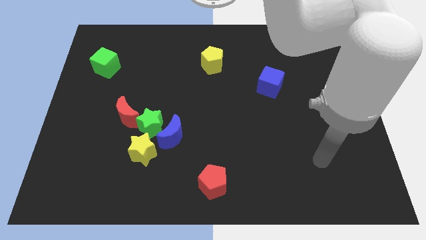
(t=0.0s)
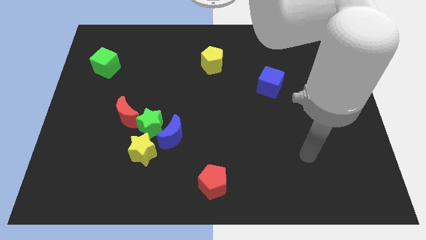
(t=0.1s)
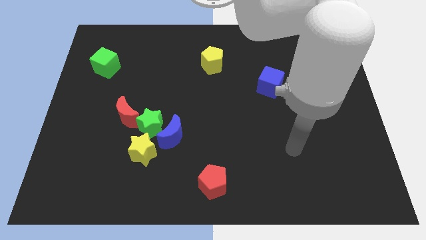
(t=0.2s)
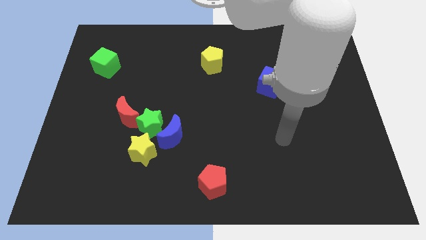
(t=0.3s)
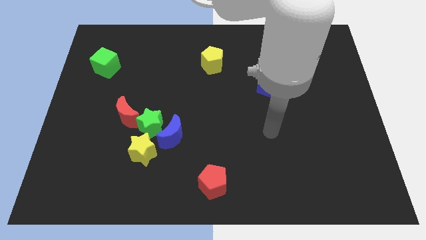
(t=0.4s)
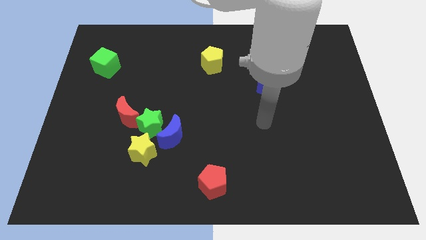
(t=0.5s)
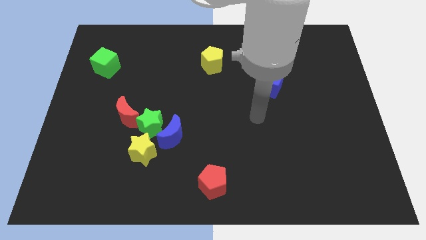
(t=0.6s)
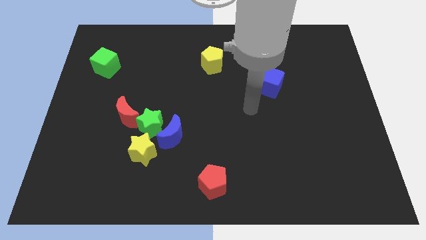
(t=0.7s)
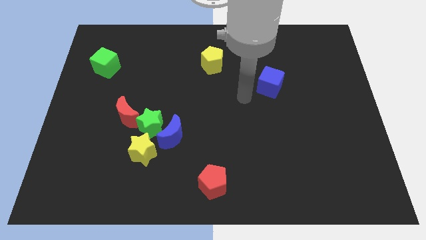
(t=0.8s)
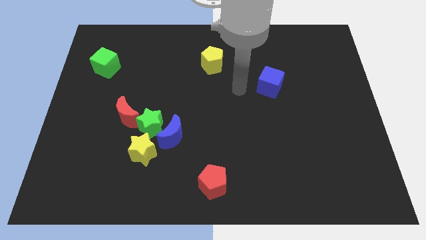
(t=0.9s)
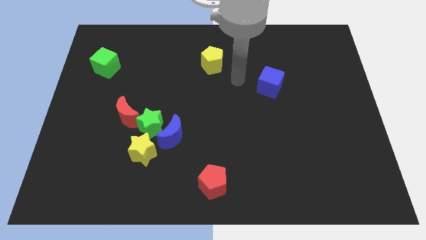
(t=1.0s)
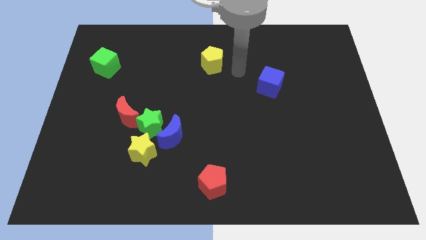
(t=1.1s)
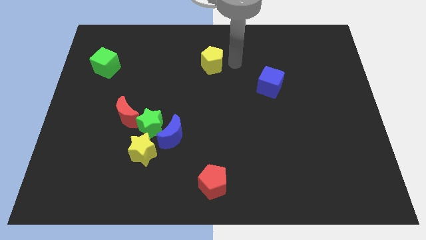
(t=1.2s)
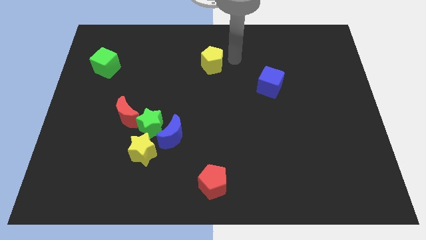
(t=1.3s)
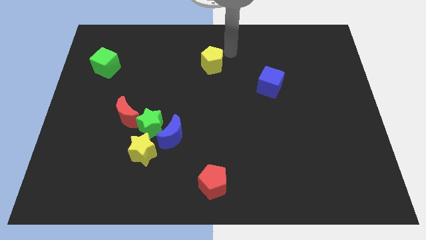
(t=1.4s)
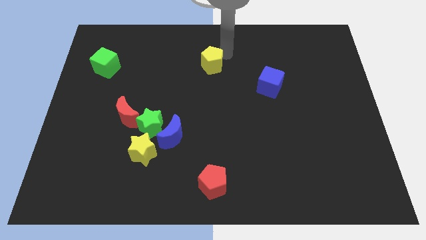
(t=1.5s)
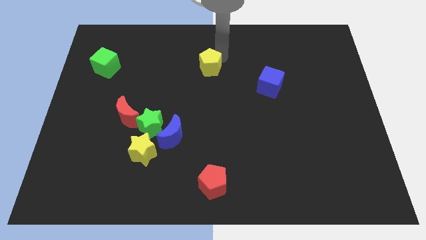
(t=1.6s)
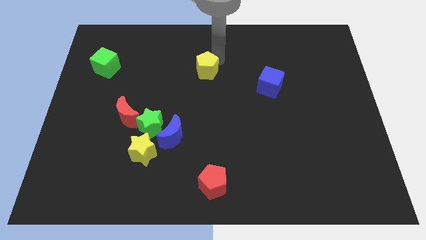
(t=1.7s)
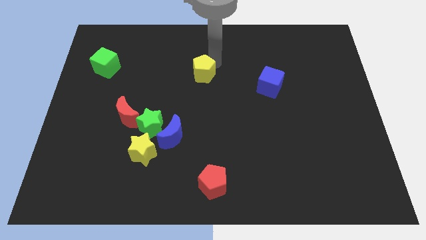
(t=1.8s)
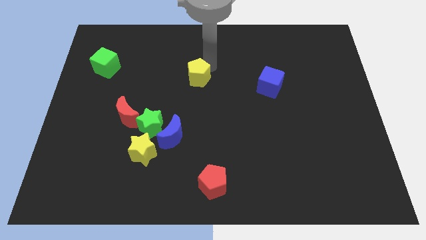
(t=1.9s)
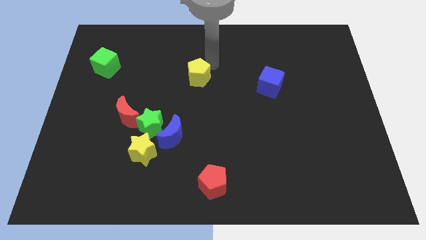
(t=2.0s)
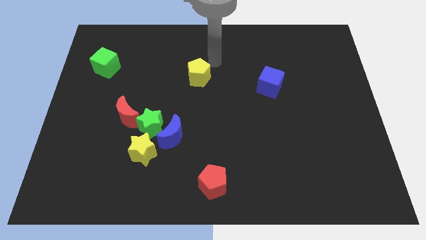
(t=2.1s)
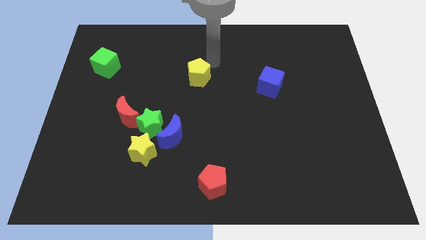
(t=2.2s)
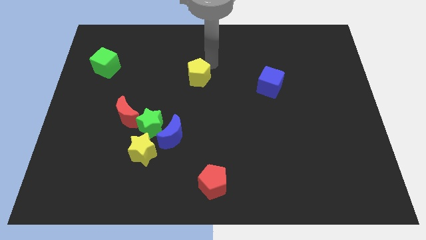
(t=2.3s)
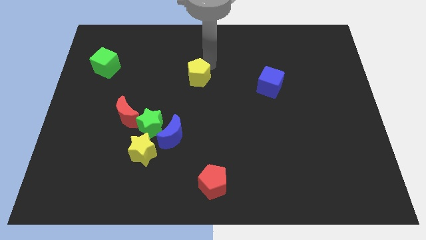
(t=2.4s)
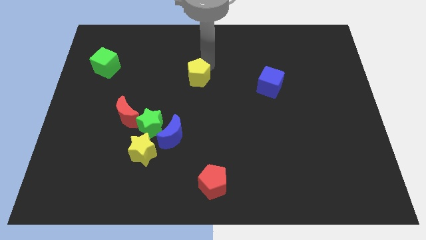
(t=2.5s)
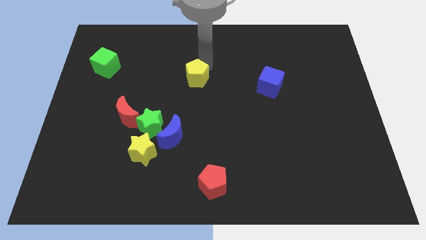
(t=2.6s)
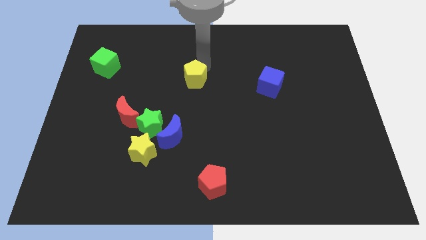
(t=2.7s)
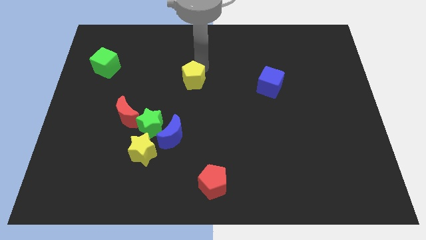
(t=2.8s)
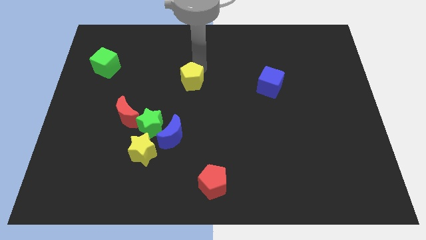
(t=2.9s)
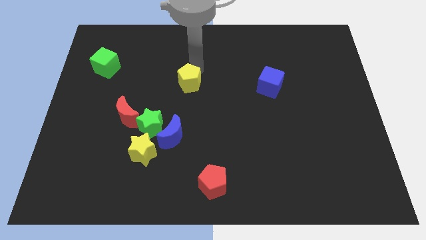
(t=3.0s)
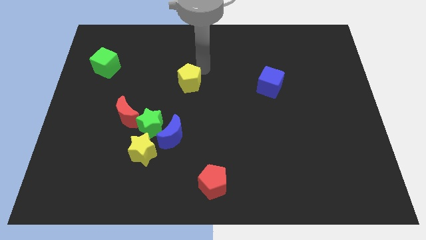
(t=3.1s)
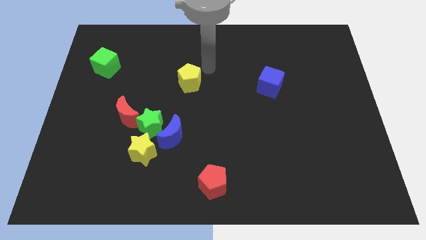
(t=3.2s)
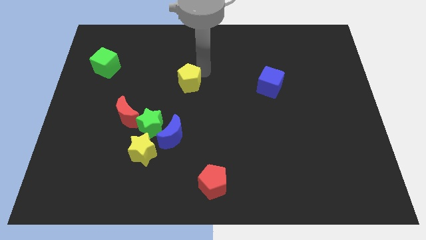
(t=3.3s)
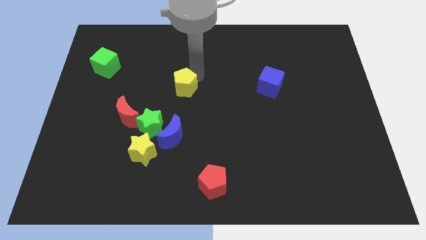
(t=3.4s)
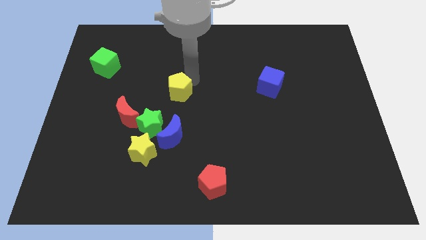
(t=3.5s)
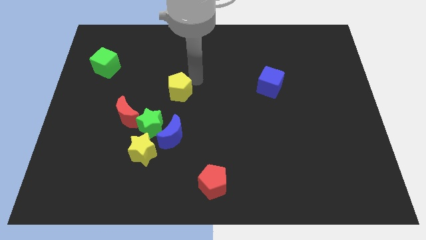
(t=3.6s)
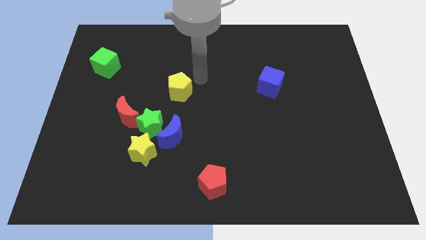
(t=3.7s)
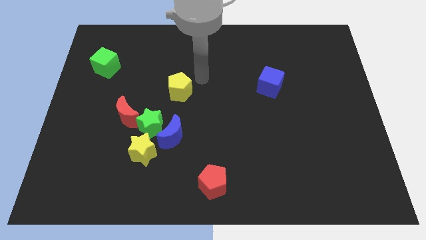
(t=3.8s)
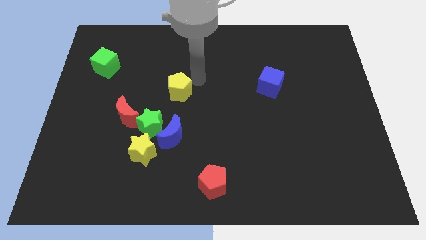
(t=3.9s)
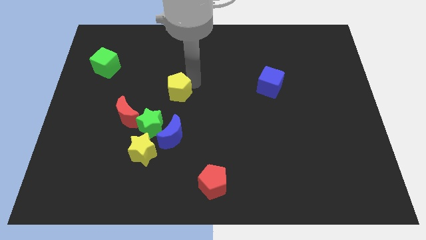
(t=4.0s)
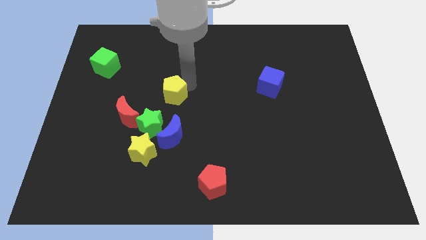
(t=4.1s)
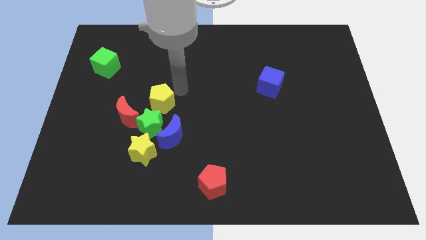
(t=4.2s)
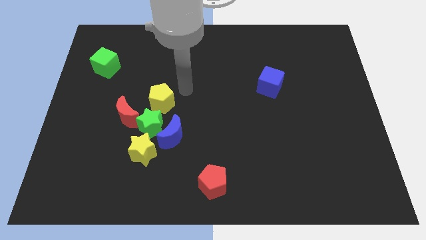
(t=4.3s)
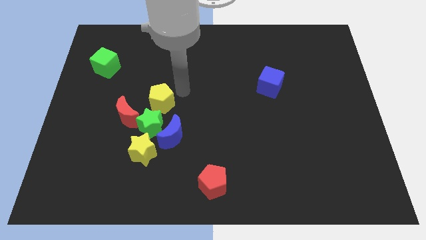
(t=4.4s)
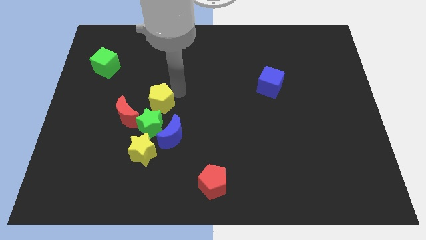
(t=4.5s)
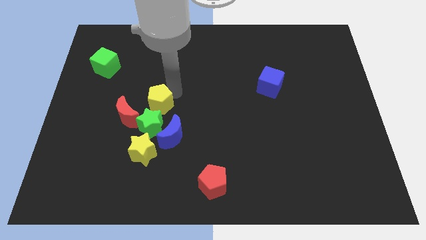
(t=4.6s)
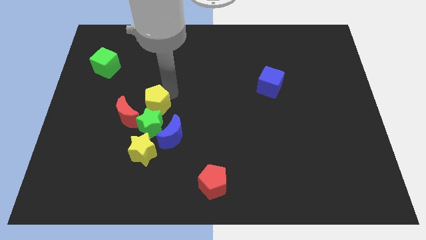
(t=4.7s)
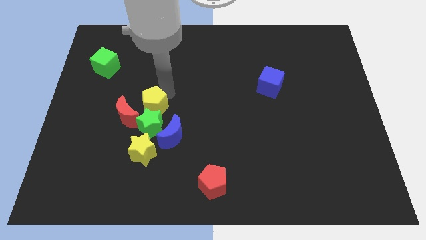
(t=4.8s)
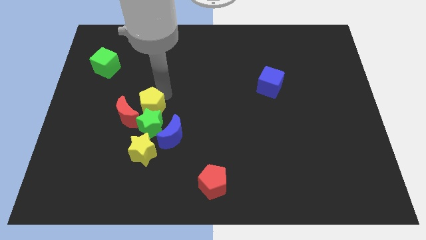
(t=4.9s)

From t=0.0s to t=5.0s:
put the yellow pentagon to the red moon

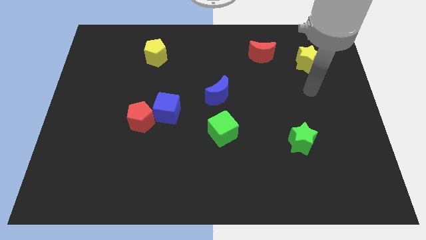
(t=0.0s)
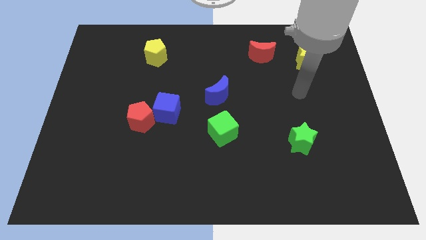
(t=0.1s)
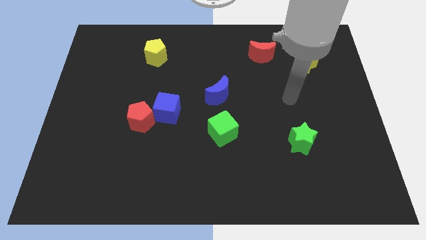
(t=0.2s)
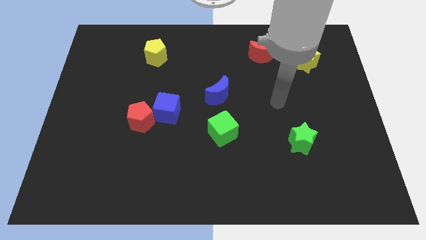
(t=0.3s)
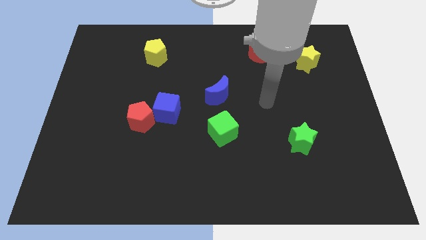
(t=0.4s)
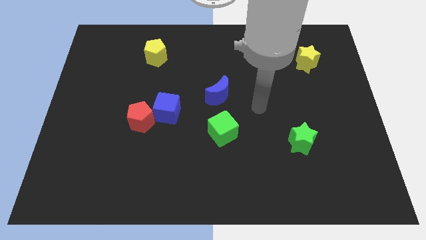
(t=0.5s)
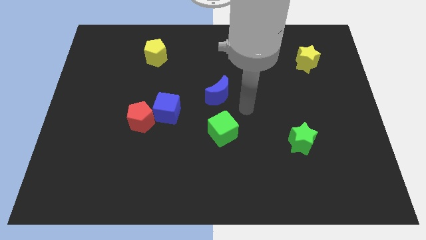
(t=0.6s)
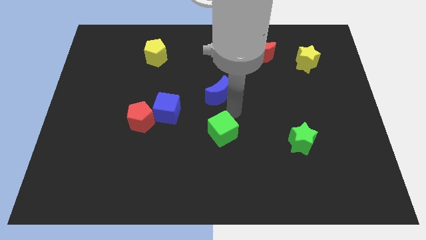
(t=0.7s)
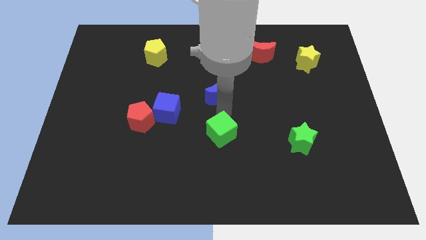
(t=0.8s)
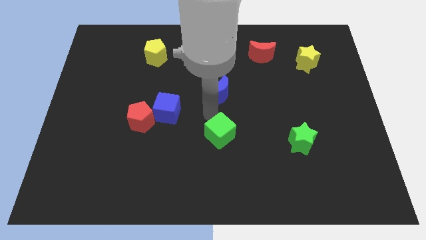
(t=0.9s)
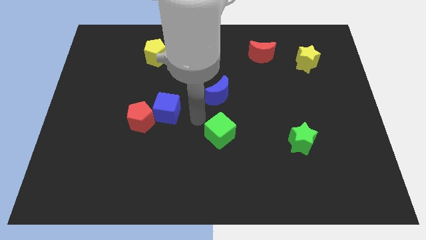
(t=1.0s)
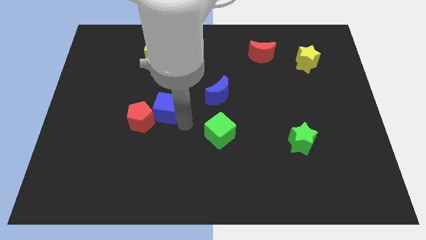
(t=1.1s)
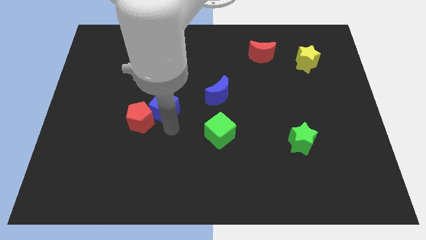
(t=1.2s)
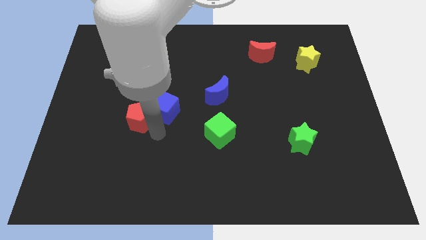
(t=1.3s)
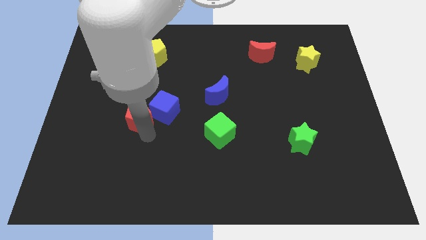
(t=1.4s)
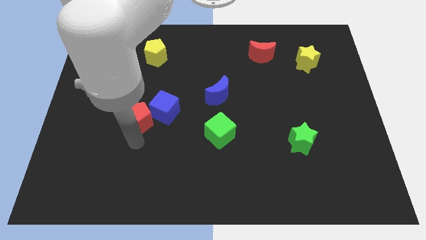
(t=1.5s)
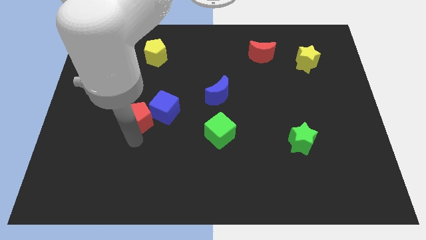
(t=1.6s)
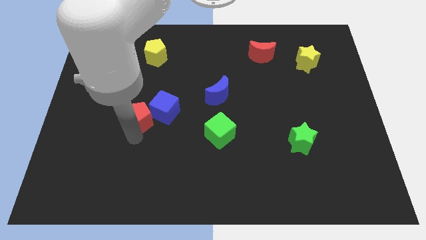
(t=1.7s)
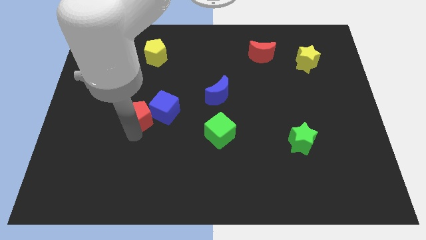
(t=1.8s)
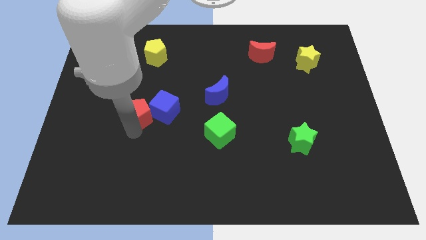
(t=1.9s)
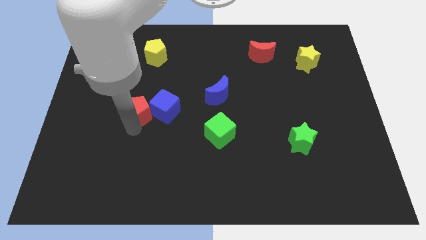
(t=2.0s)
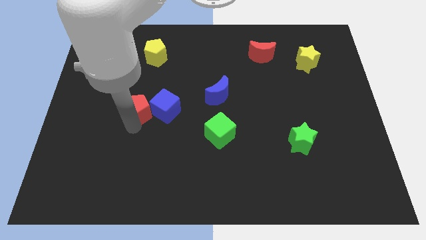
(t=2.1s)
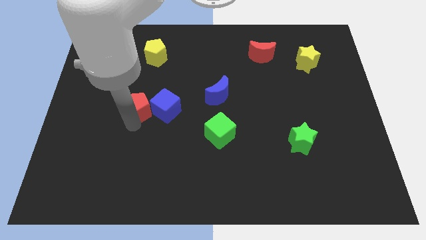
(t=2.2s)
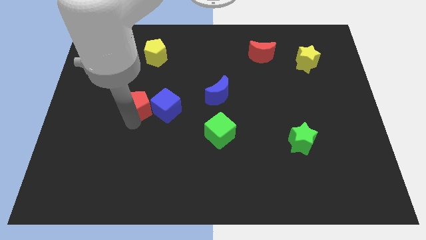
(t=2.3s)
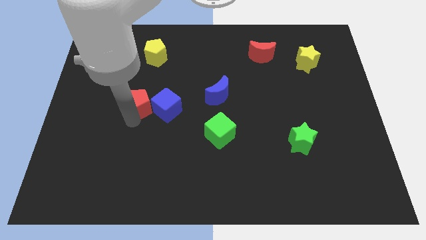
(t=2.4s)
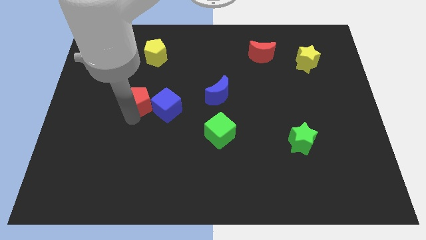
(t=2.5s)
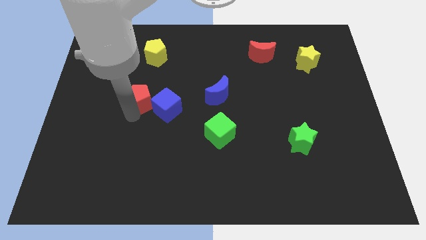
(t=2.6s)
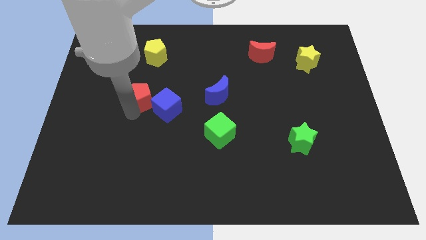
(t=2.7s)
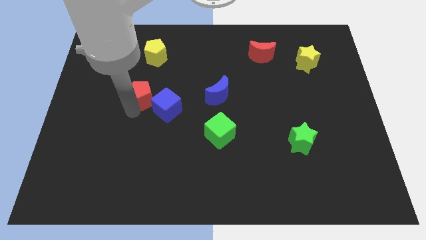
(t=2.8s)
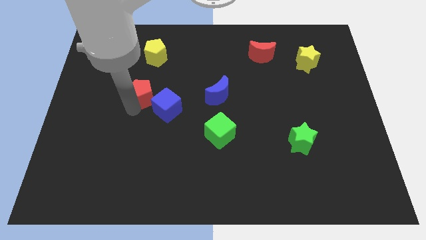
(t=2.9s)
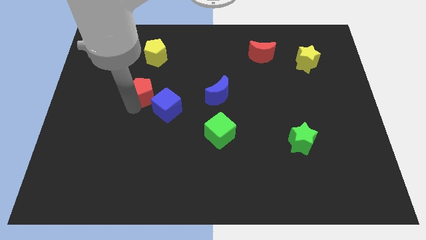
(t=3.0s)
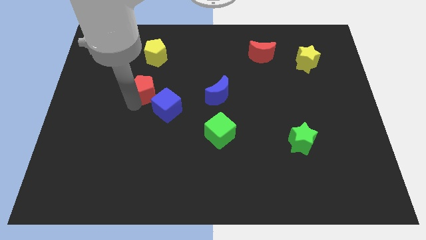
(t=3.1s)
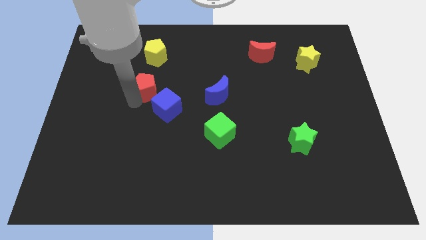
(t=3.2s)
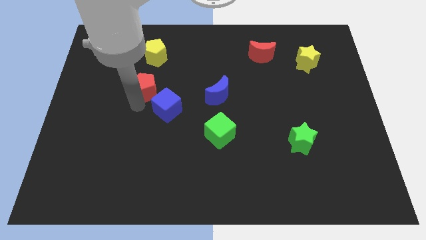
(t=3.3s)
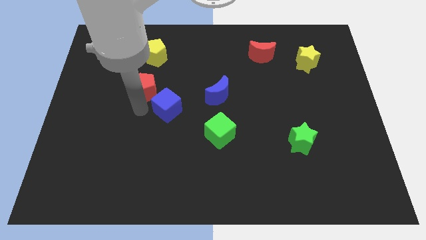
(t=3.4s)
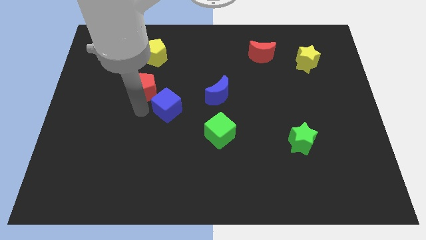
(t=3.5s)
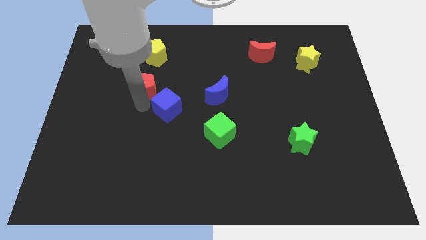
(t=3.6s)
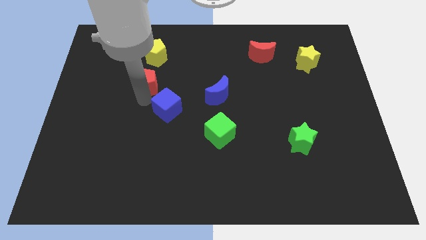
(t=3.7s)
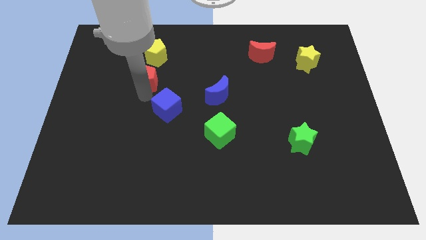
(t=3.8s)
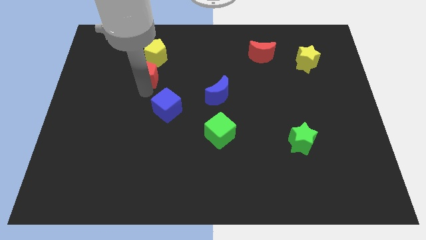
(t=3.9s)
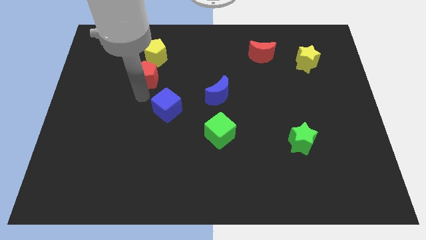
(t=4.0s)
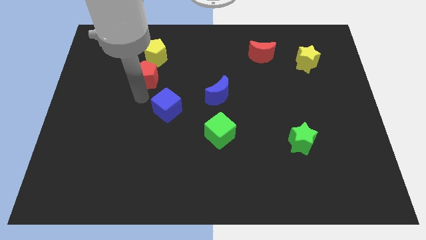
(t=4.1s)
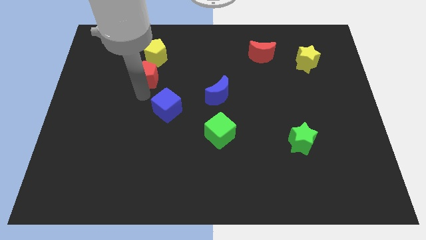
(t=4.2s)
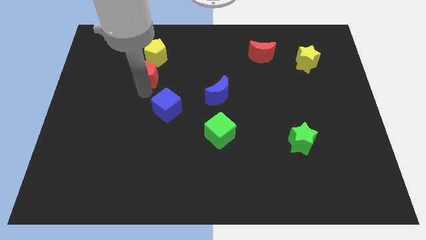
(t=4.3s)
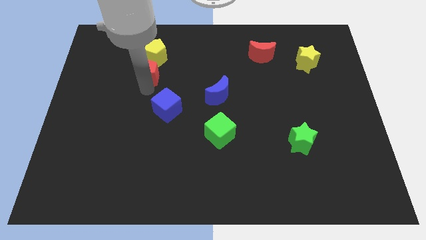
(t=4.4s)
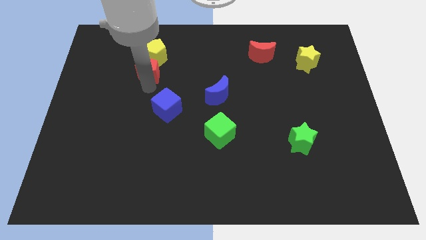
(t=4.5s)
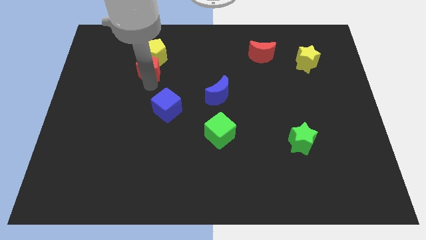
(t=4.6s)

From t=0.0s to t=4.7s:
put the red pentagon close to the yellow pentagon
